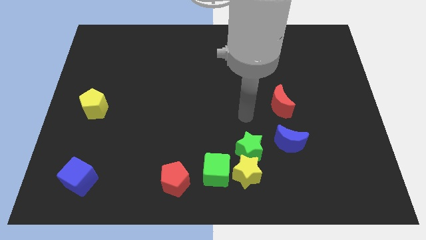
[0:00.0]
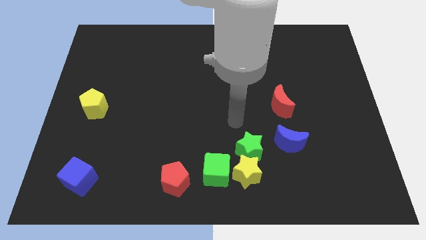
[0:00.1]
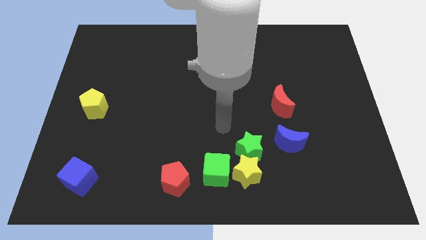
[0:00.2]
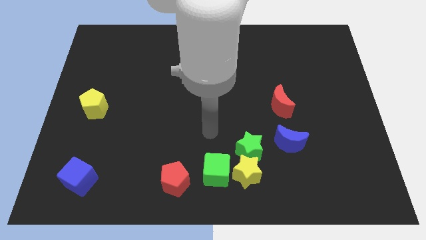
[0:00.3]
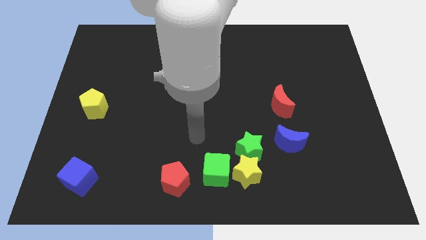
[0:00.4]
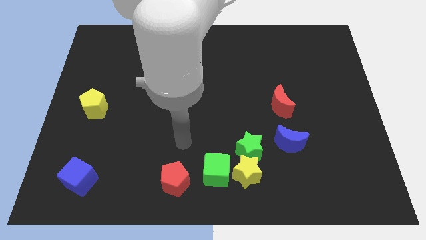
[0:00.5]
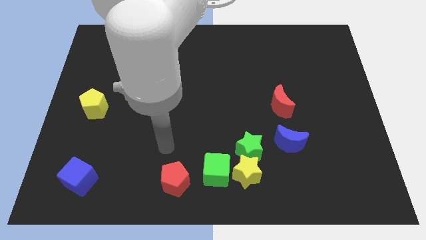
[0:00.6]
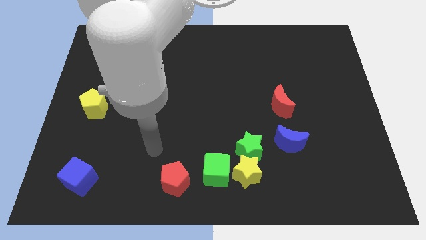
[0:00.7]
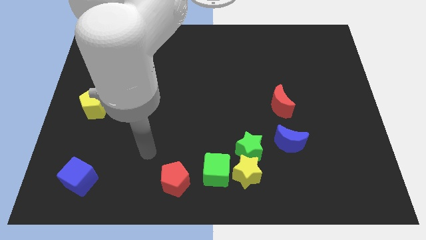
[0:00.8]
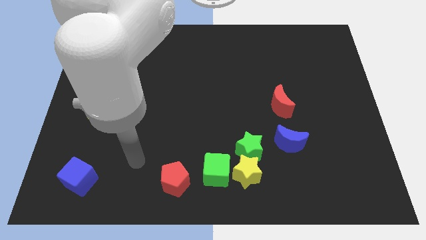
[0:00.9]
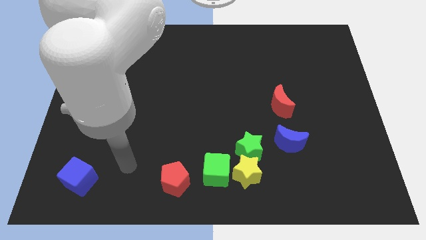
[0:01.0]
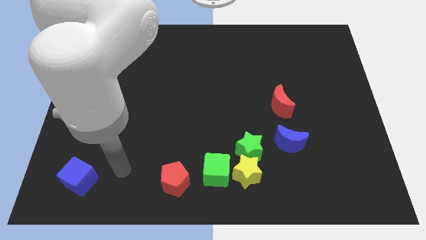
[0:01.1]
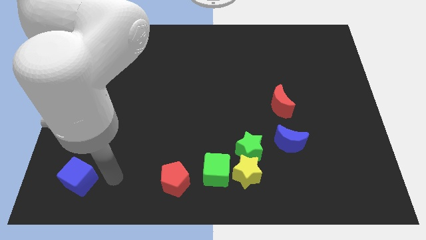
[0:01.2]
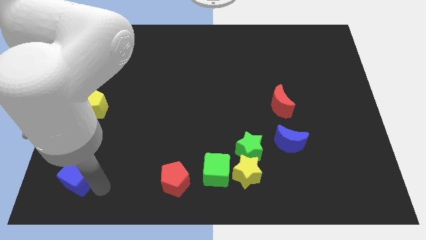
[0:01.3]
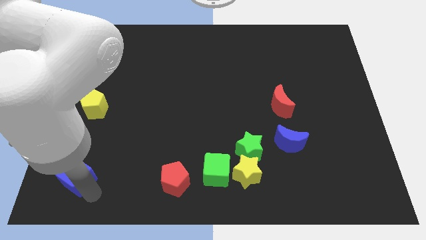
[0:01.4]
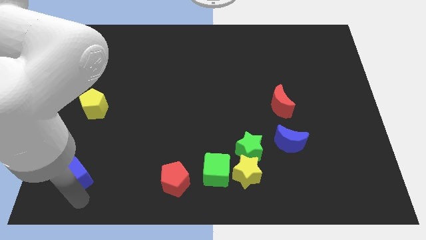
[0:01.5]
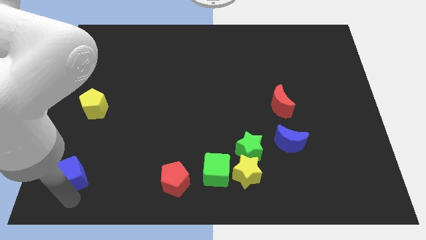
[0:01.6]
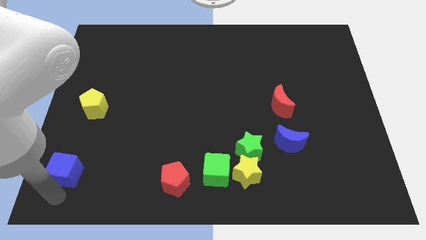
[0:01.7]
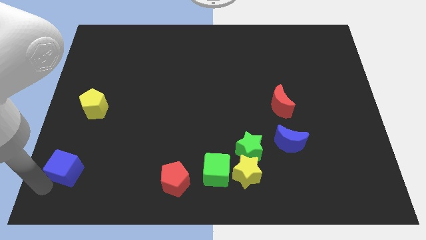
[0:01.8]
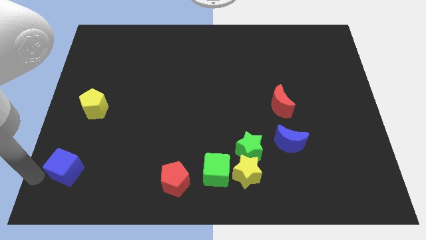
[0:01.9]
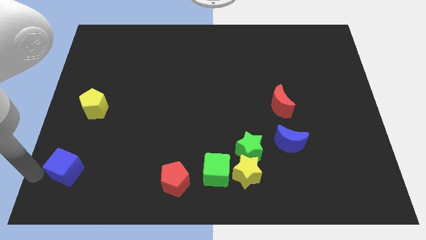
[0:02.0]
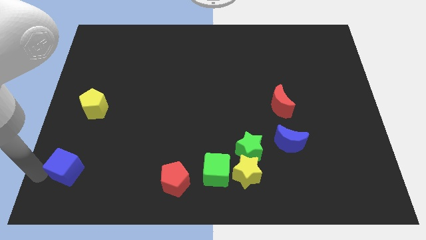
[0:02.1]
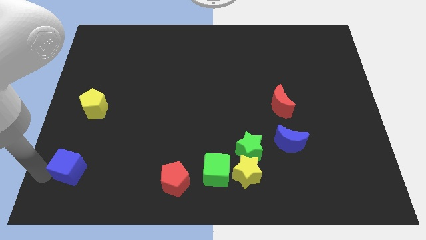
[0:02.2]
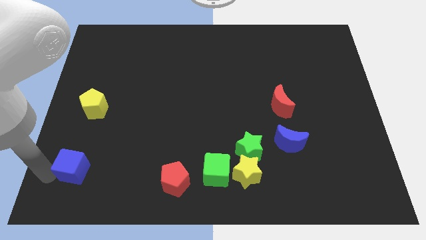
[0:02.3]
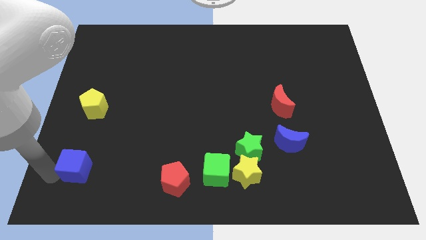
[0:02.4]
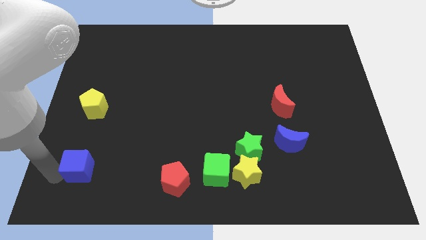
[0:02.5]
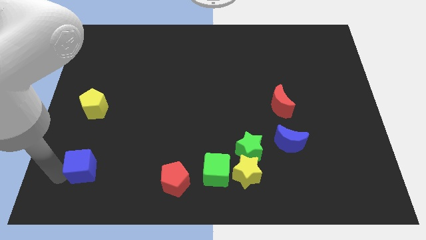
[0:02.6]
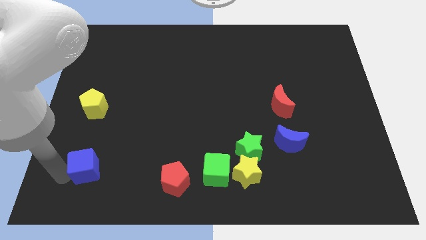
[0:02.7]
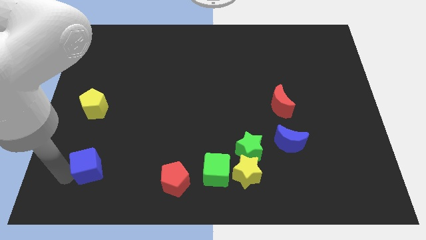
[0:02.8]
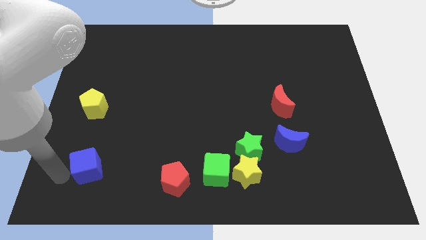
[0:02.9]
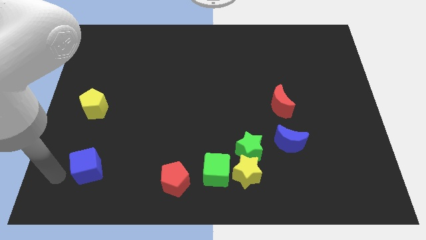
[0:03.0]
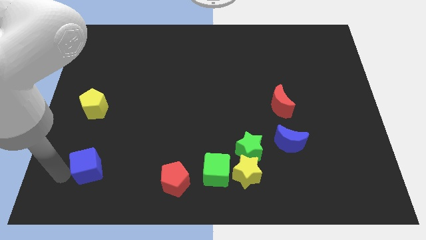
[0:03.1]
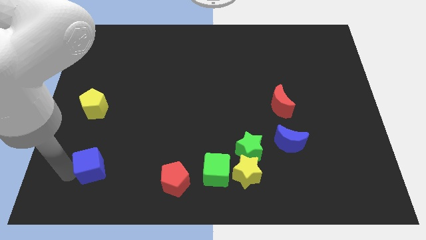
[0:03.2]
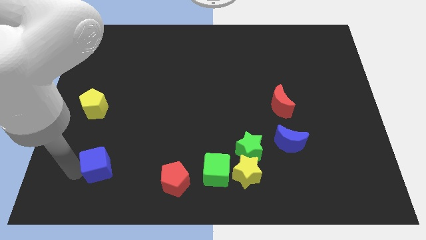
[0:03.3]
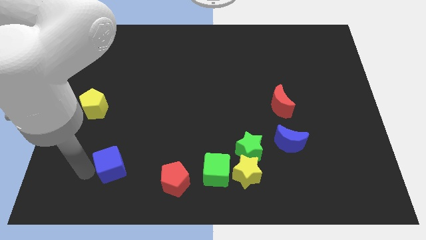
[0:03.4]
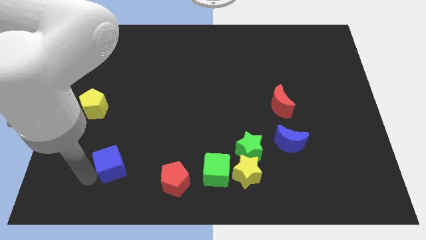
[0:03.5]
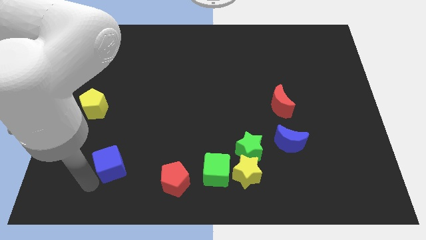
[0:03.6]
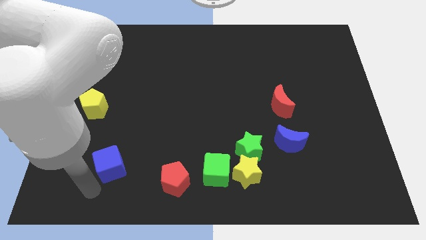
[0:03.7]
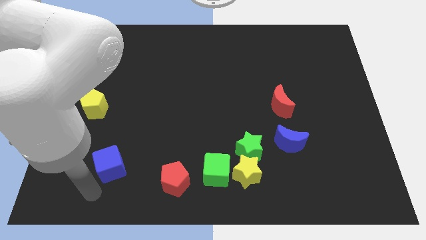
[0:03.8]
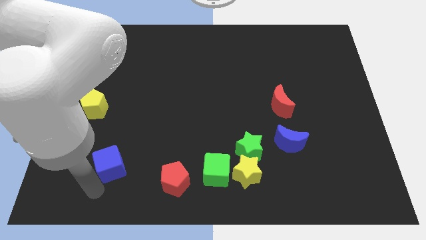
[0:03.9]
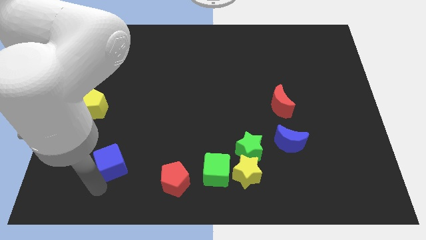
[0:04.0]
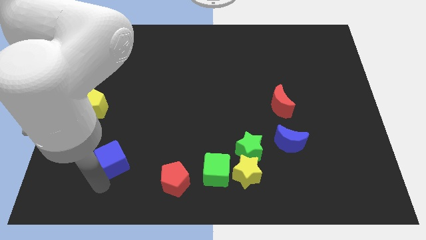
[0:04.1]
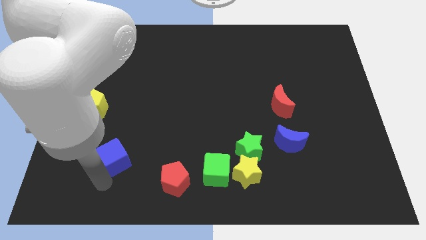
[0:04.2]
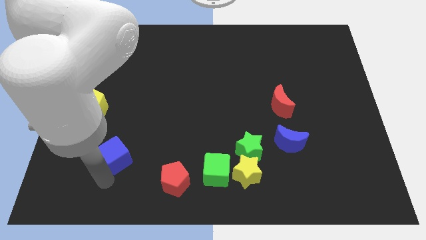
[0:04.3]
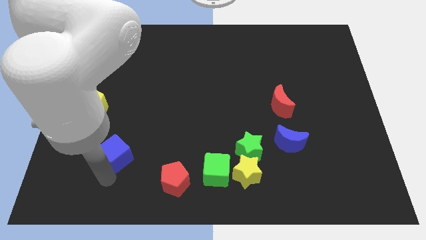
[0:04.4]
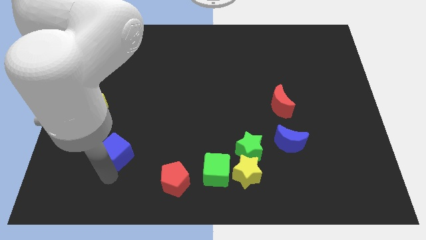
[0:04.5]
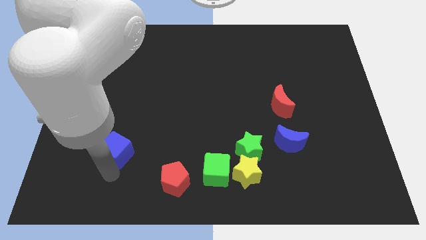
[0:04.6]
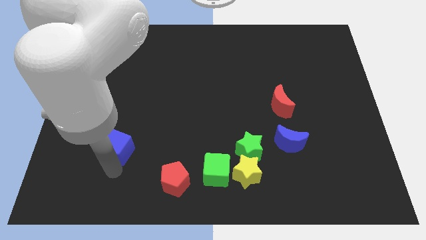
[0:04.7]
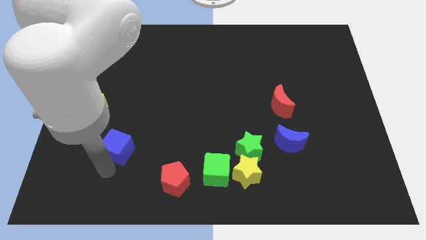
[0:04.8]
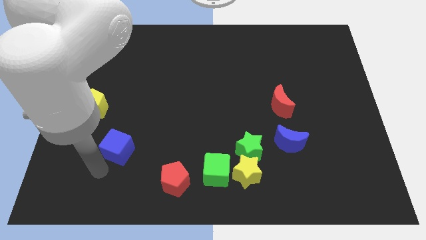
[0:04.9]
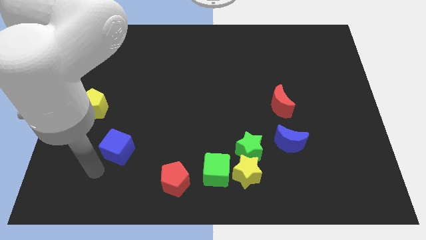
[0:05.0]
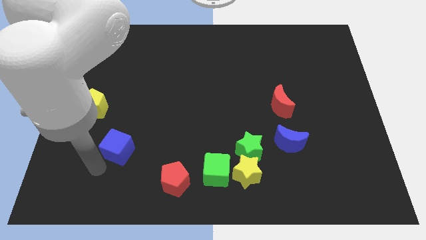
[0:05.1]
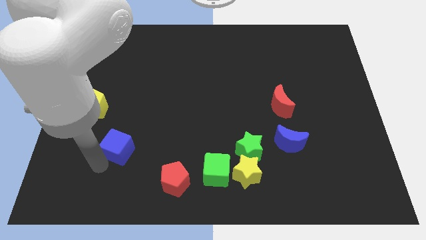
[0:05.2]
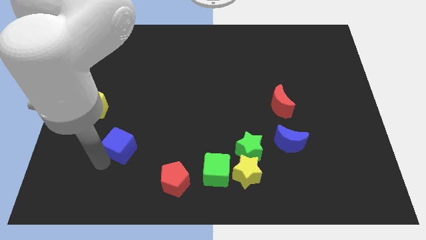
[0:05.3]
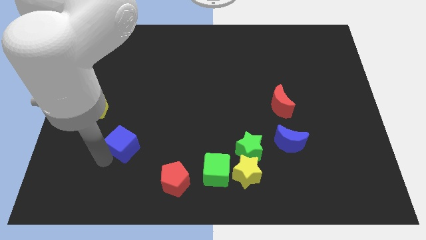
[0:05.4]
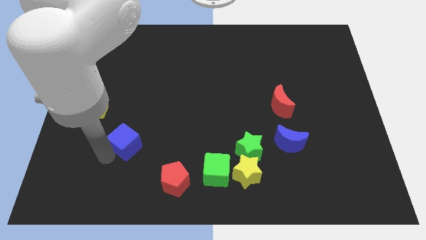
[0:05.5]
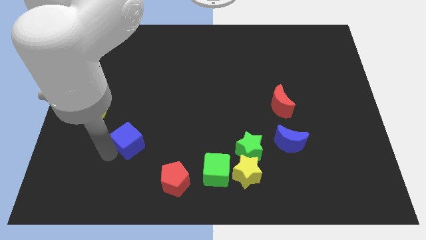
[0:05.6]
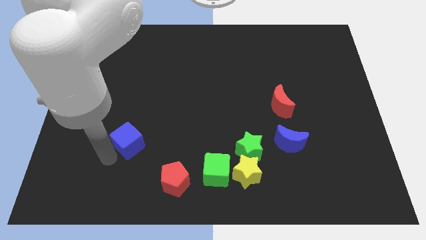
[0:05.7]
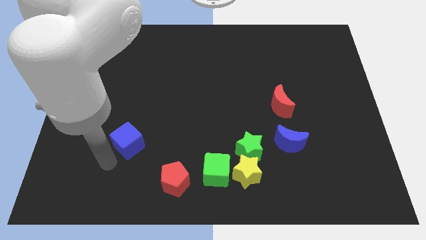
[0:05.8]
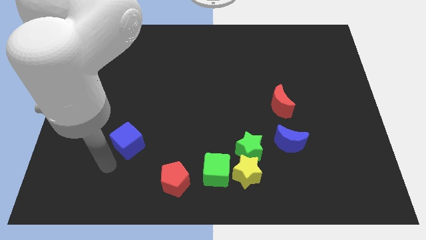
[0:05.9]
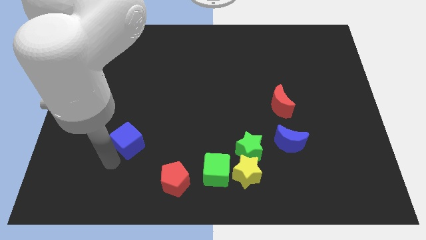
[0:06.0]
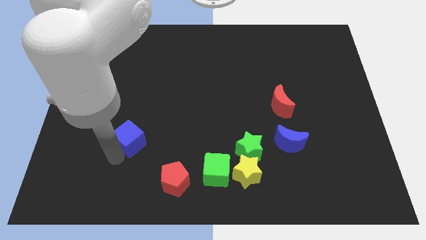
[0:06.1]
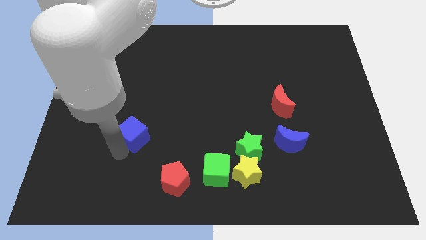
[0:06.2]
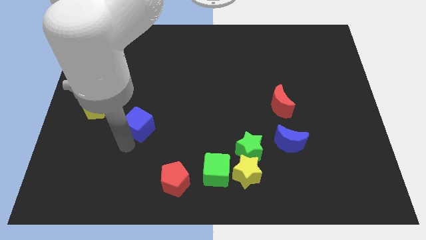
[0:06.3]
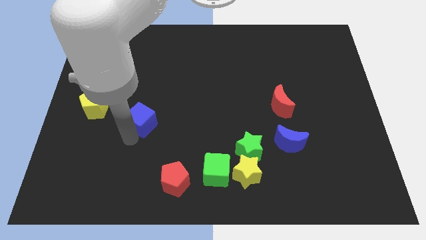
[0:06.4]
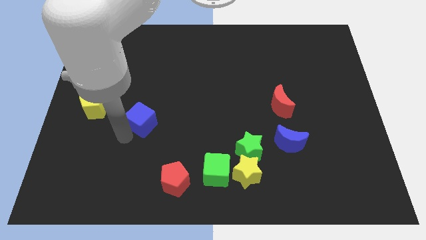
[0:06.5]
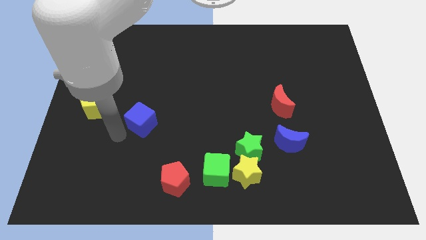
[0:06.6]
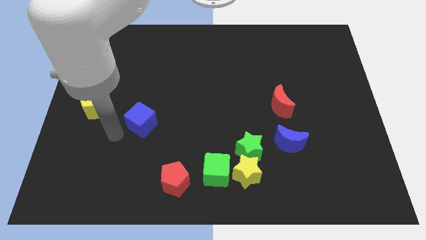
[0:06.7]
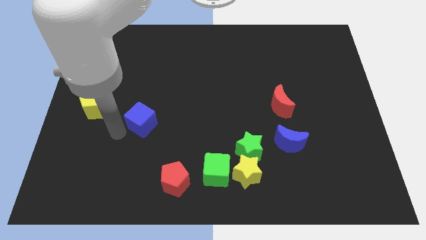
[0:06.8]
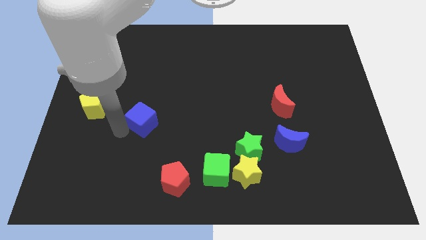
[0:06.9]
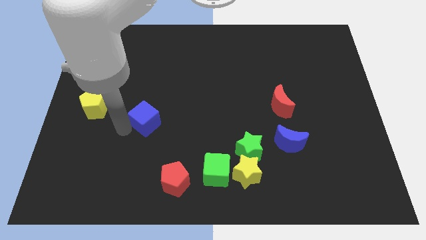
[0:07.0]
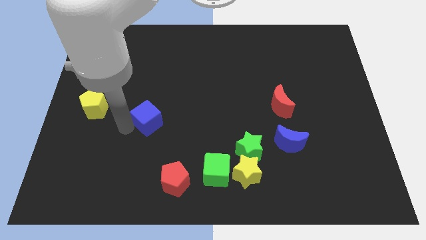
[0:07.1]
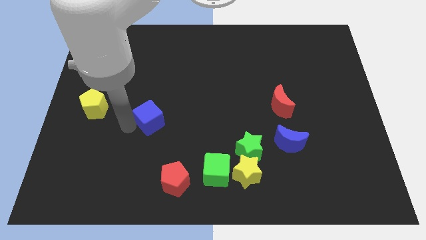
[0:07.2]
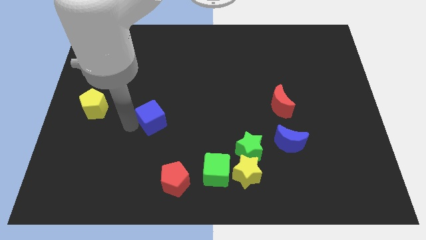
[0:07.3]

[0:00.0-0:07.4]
slide the blue cube up and then right

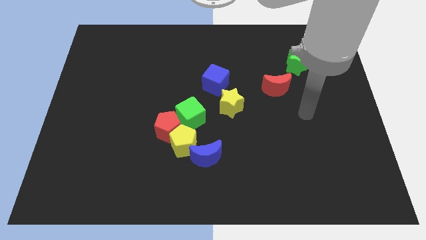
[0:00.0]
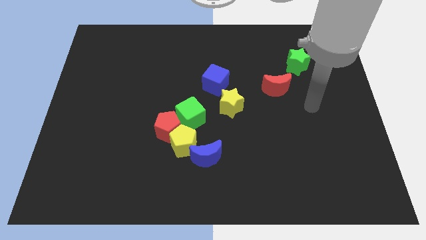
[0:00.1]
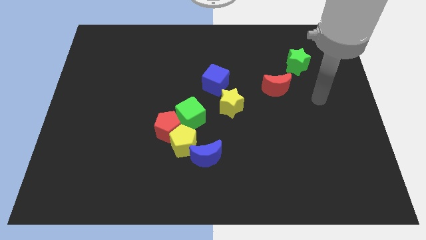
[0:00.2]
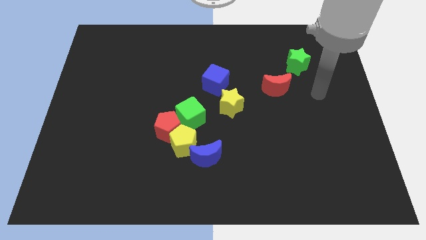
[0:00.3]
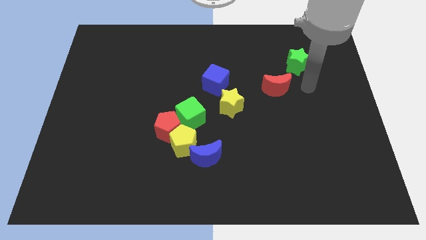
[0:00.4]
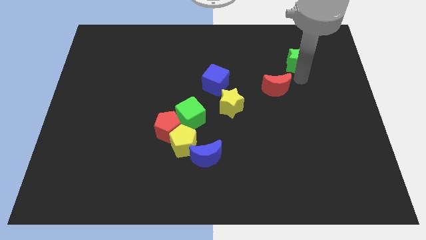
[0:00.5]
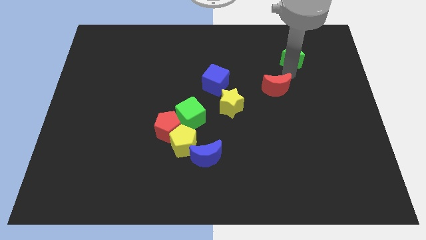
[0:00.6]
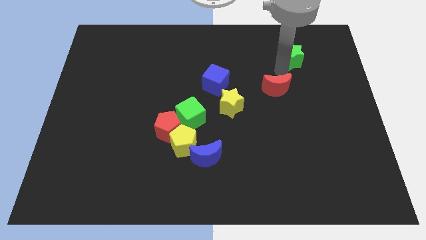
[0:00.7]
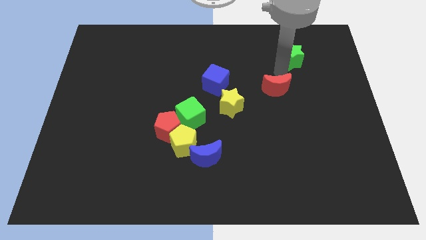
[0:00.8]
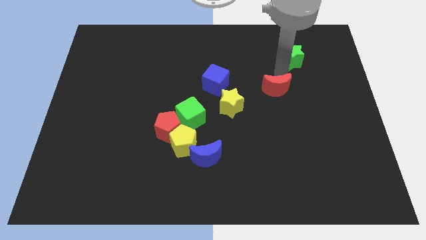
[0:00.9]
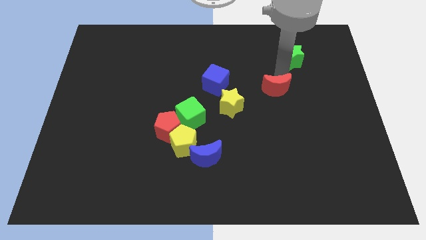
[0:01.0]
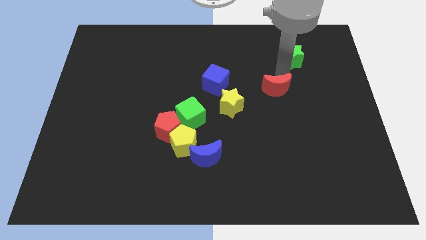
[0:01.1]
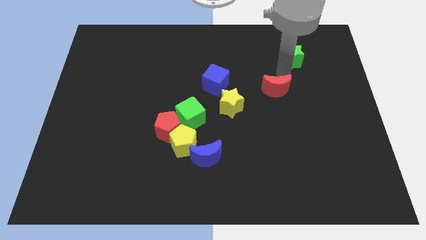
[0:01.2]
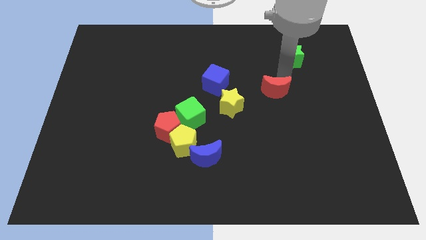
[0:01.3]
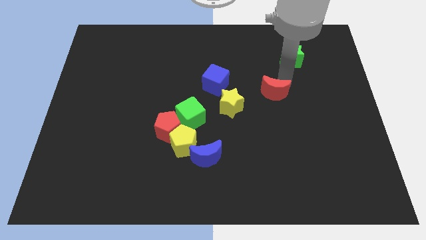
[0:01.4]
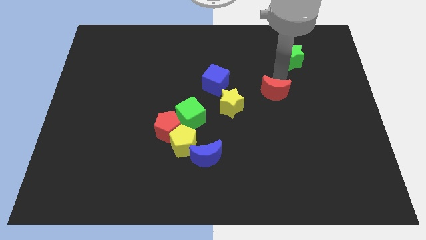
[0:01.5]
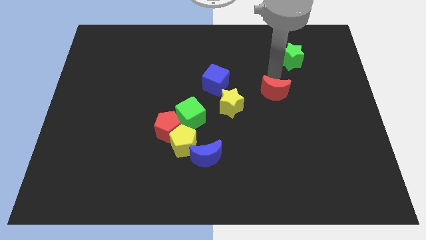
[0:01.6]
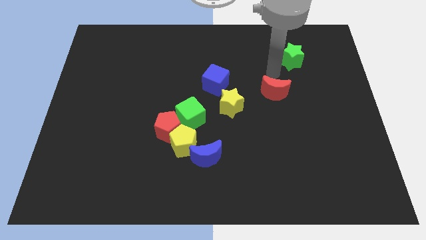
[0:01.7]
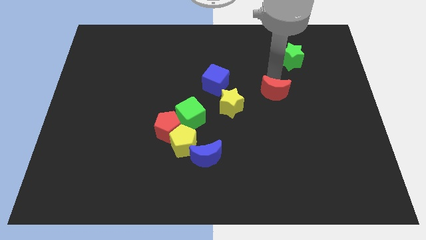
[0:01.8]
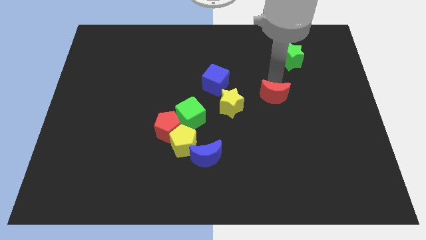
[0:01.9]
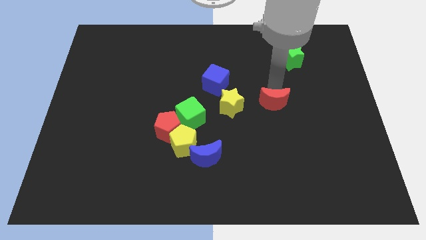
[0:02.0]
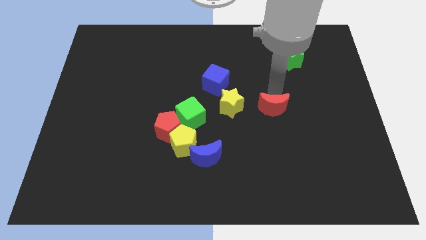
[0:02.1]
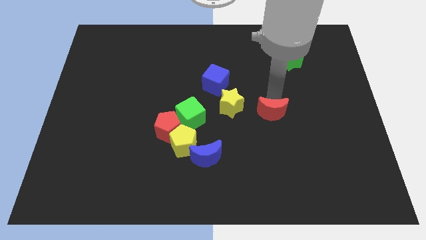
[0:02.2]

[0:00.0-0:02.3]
slide the red moon down slightly
